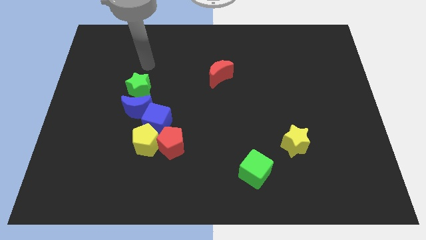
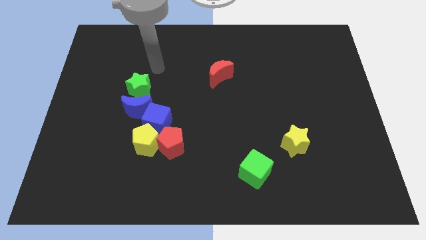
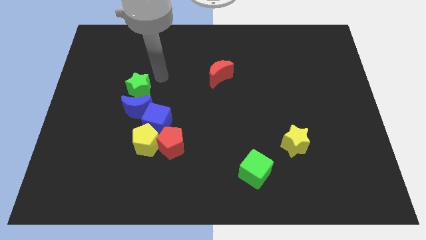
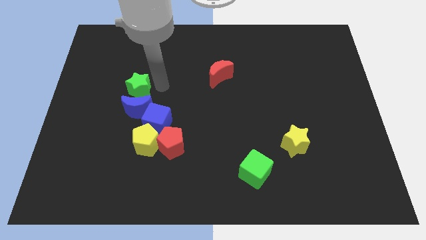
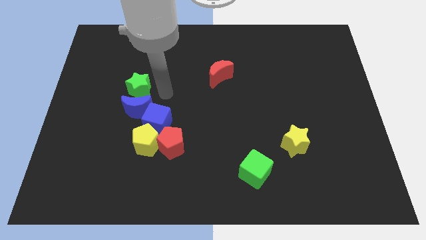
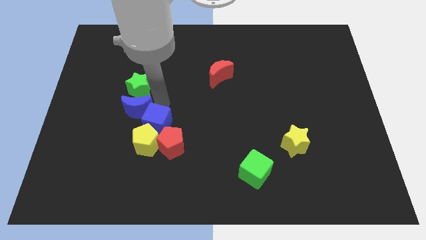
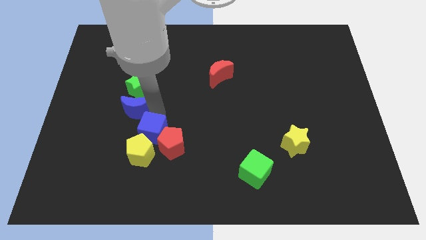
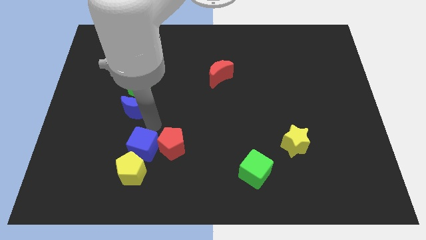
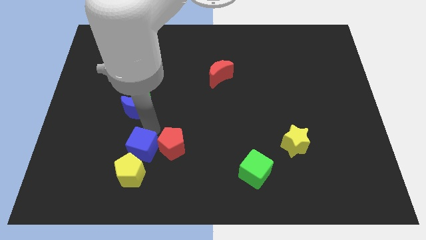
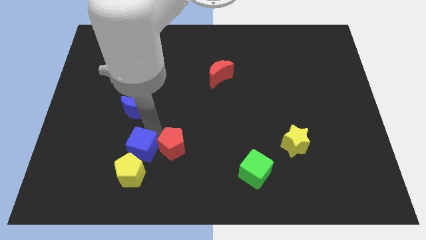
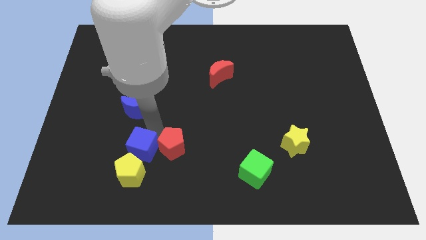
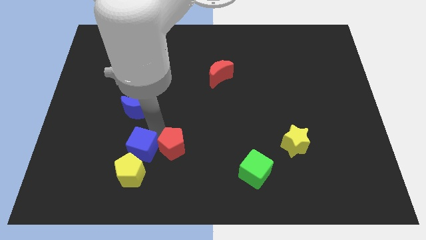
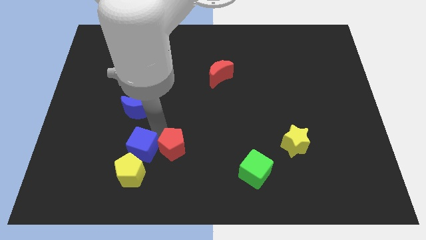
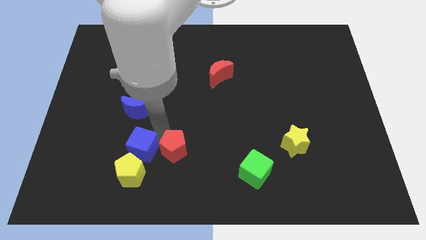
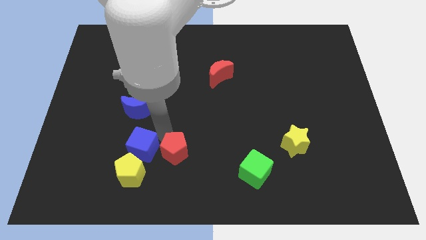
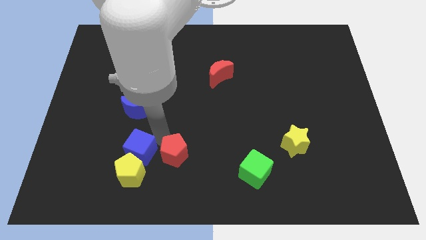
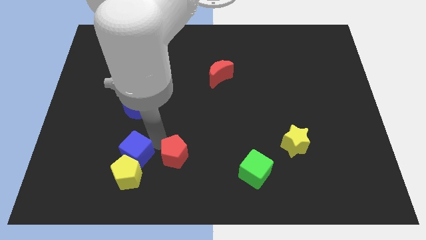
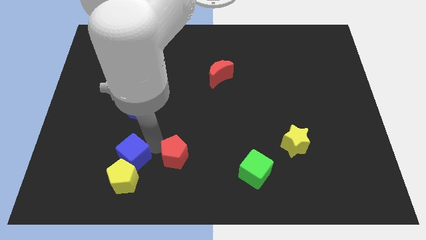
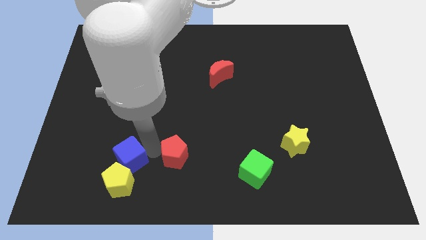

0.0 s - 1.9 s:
separate the red pentagon from the yellow pentagon and blue cube

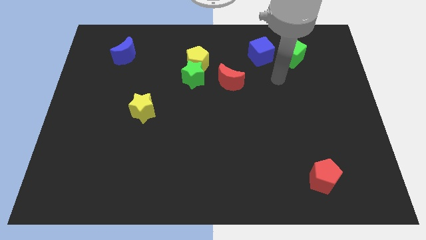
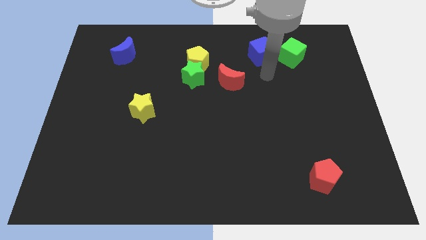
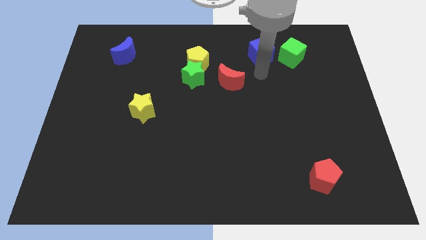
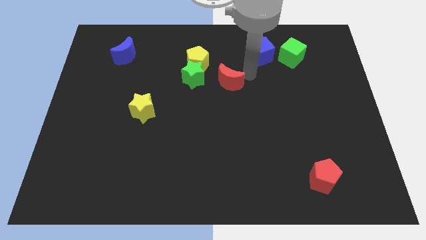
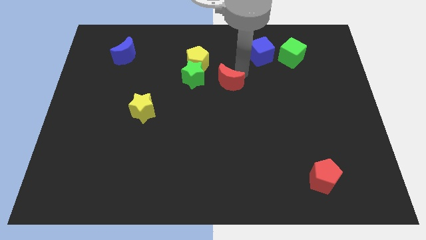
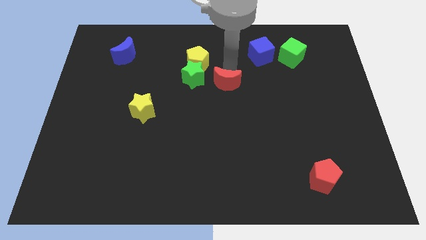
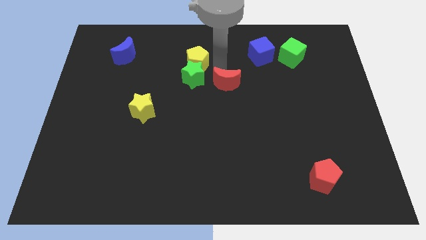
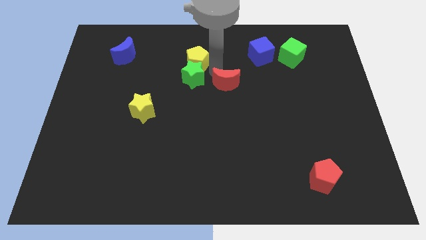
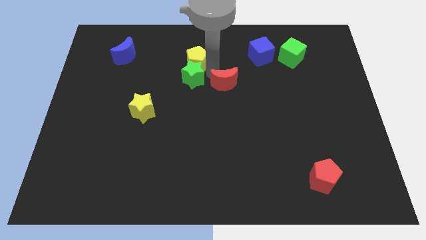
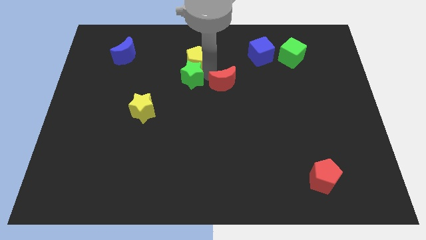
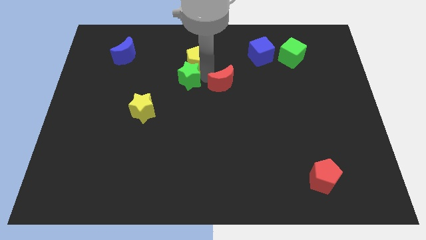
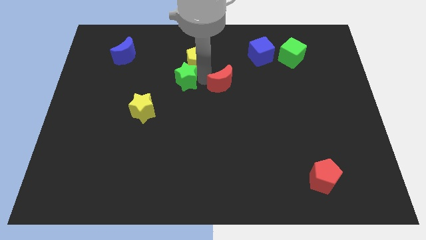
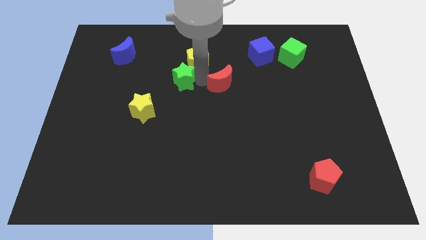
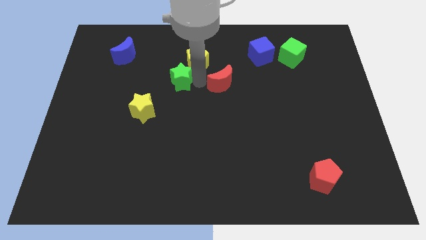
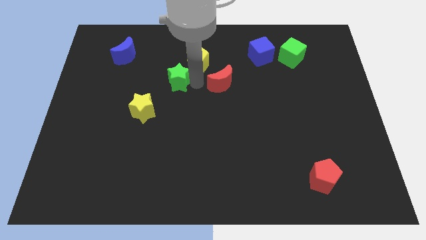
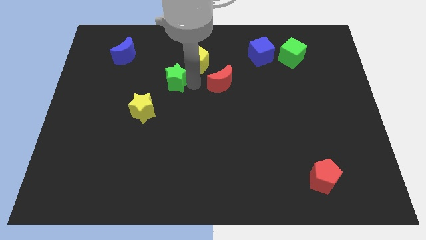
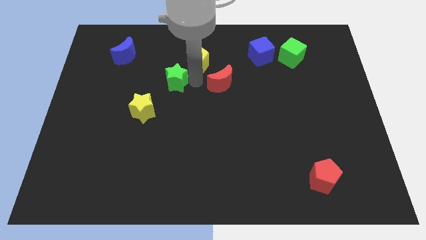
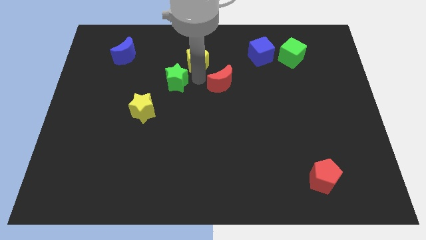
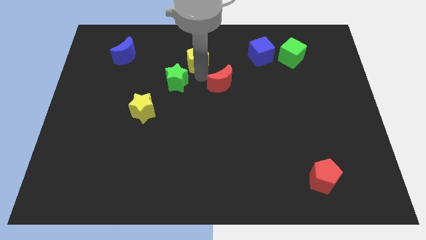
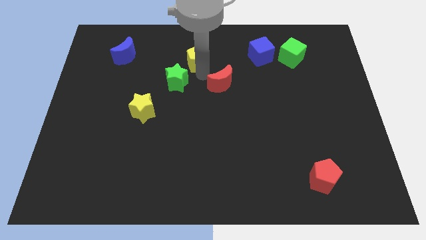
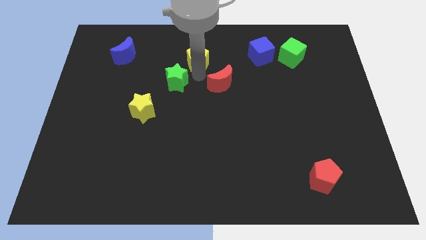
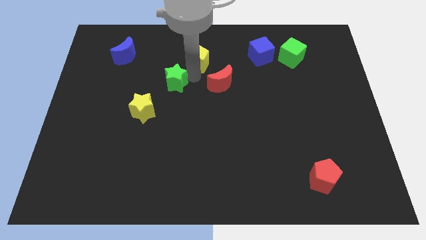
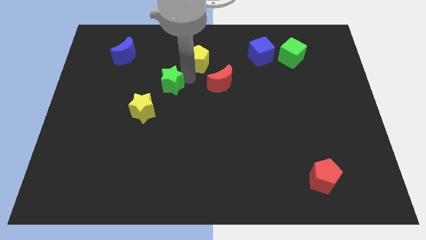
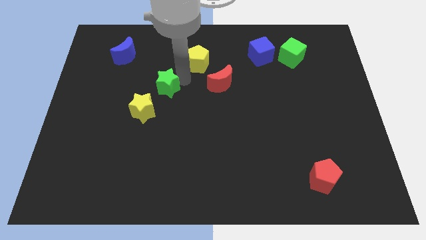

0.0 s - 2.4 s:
move the green star away from the yellow pentagon and red moon

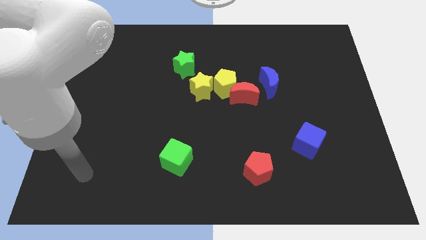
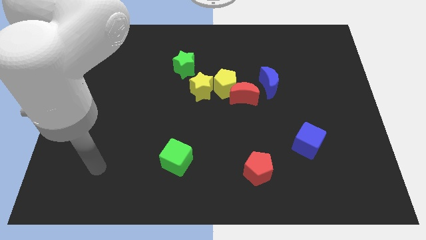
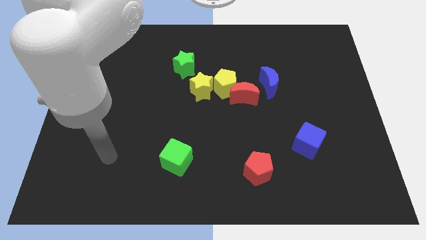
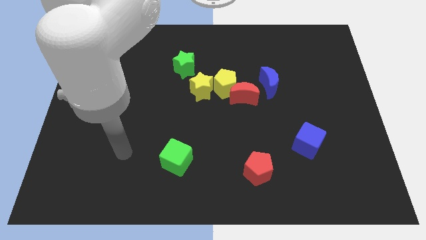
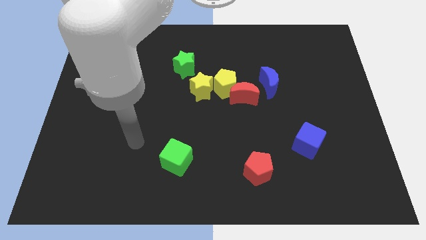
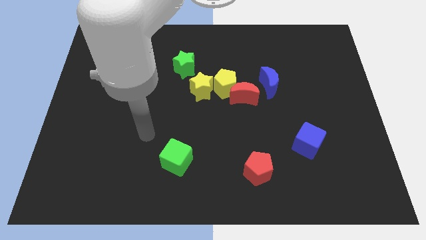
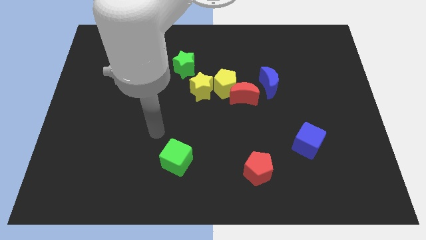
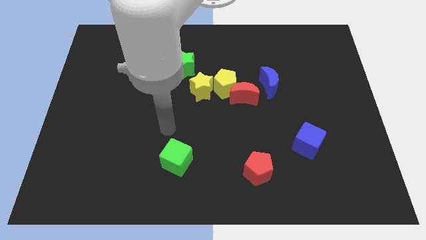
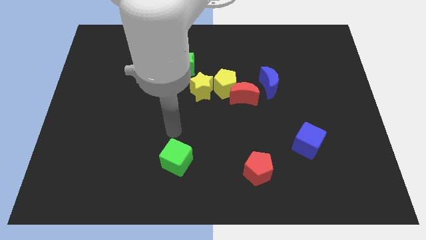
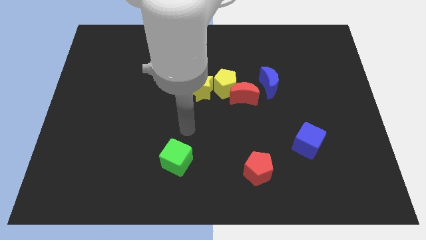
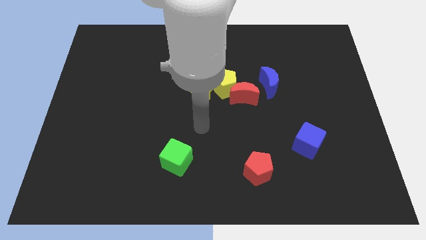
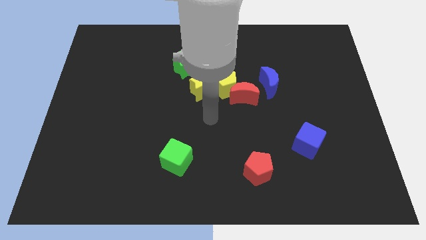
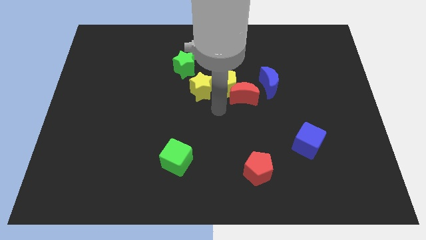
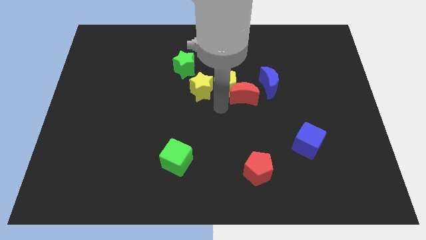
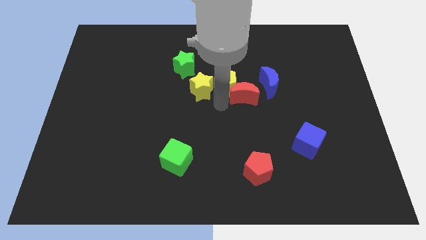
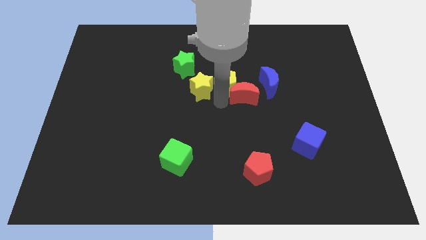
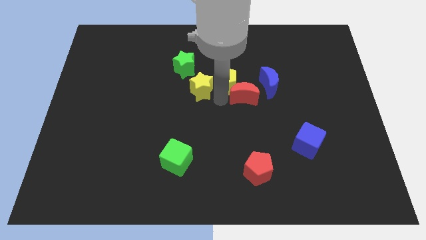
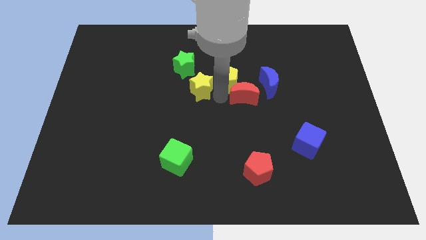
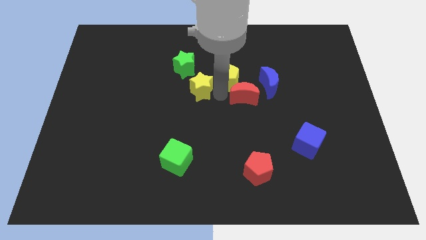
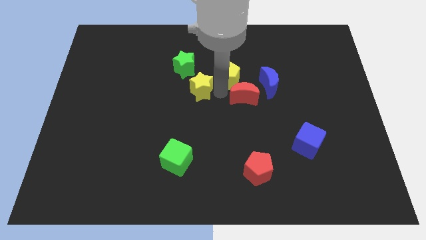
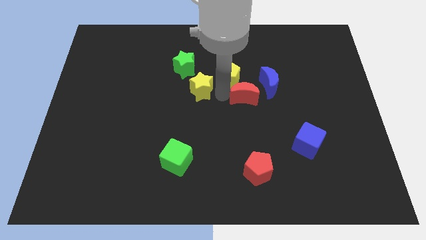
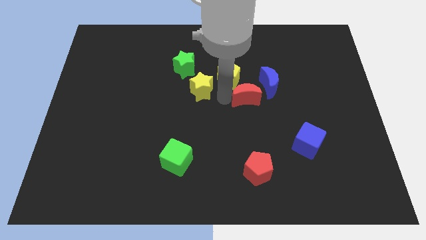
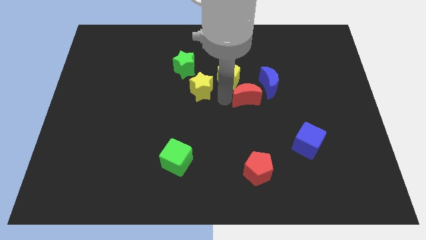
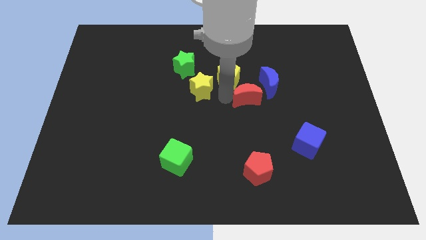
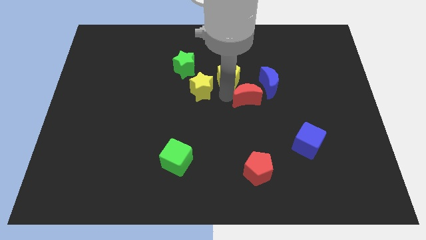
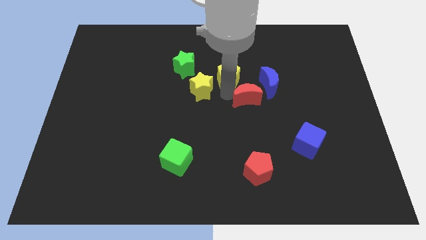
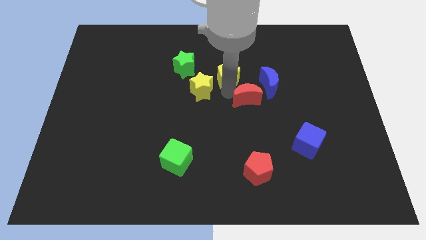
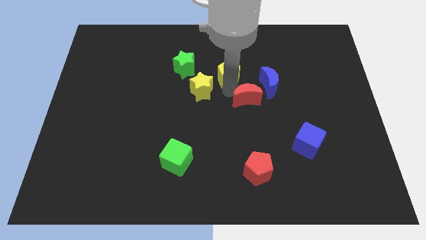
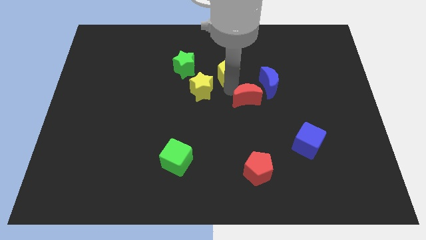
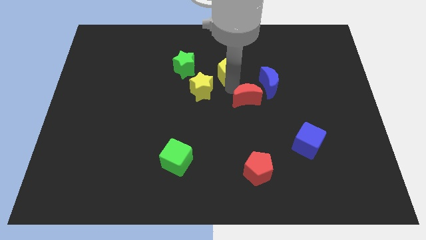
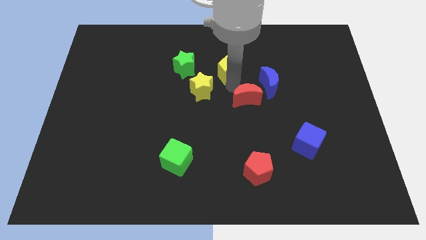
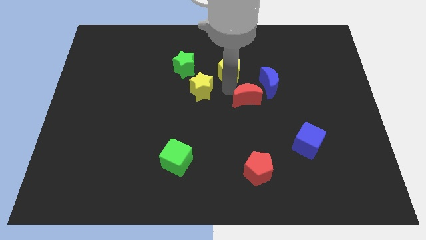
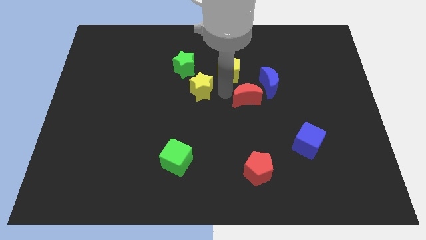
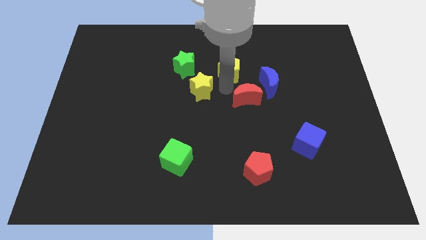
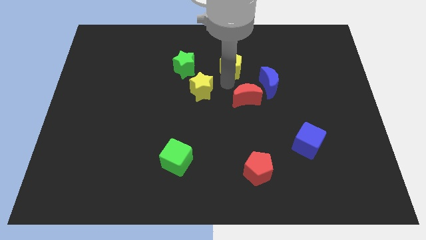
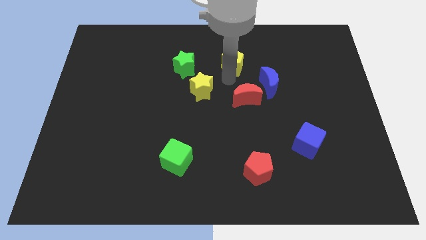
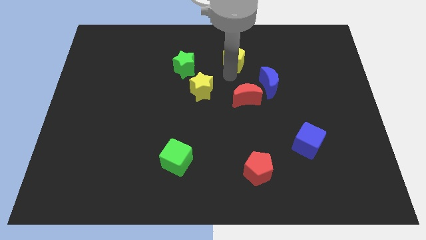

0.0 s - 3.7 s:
pull the yellow pentagon apart from the red moon and yellow star

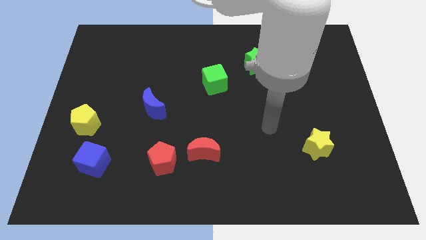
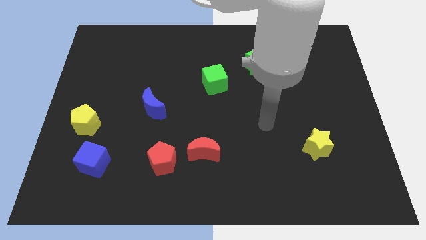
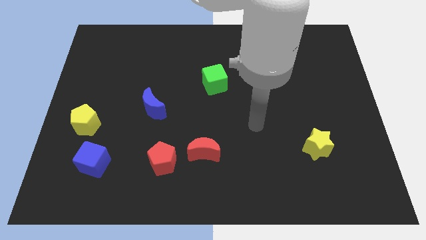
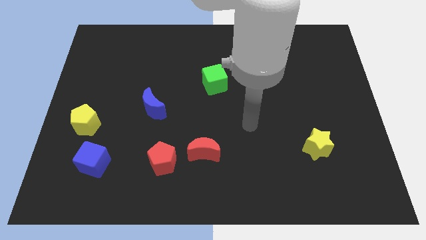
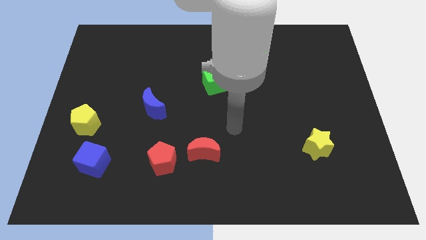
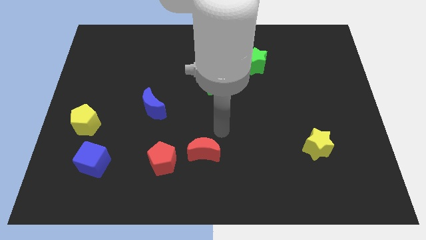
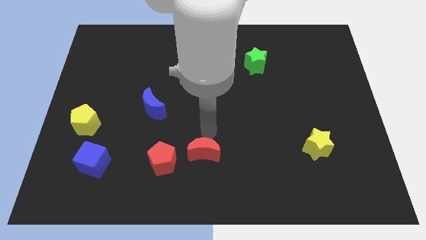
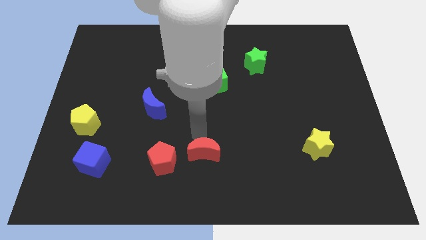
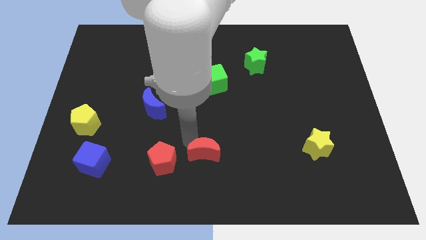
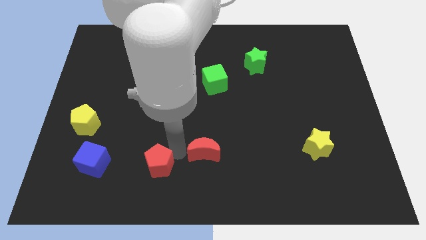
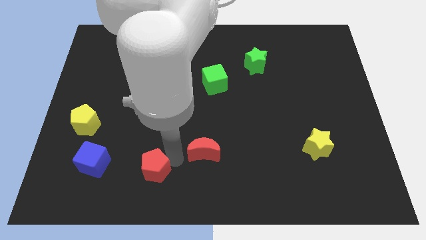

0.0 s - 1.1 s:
move the red moon away from the red pentagon

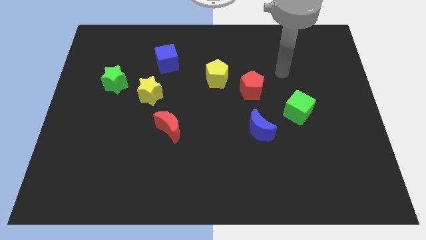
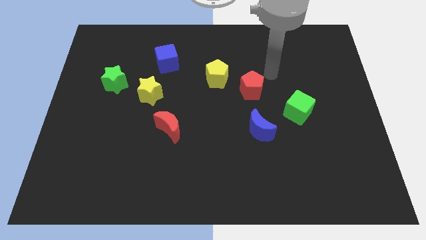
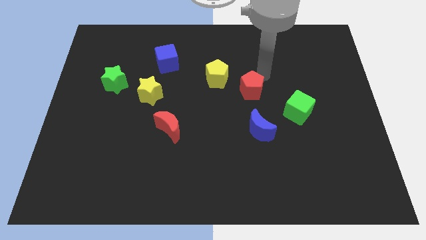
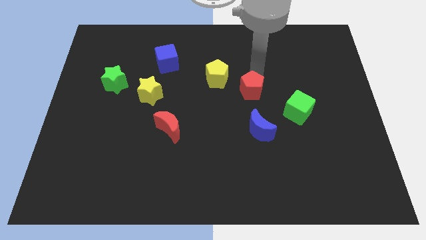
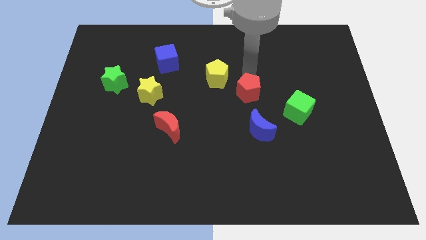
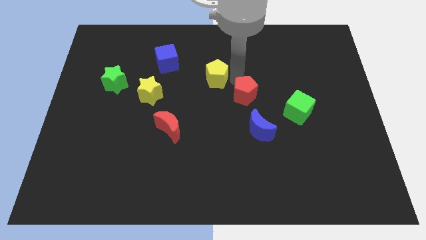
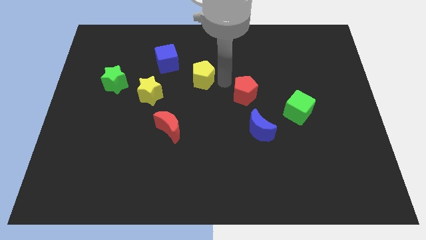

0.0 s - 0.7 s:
pull the red pentagon apart from the yellow pentagon
